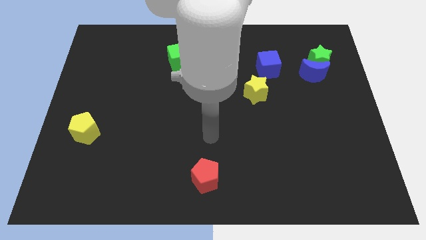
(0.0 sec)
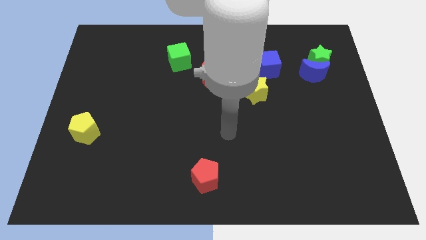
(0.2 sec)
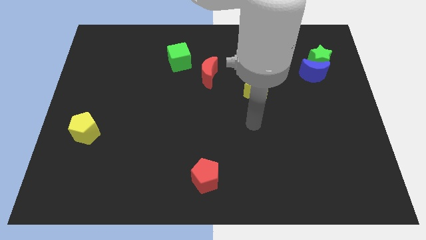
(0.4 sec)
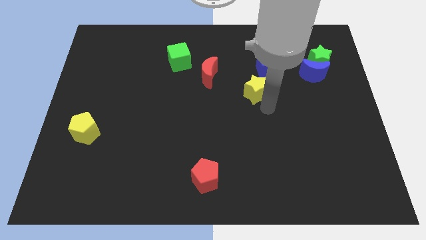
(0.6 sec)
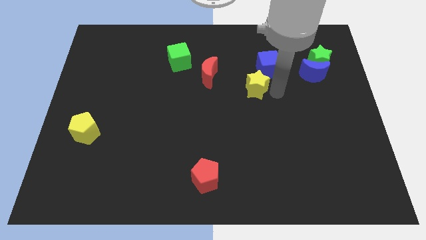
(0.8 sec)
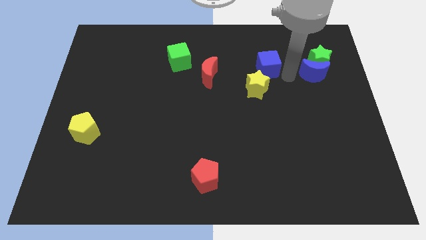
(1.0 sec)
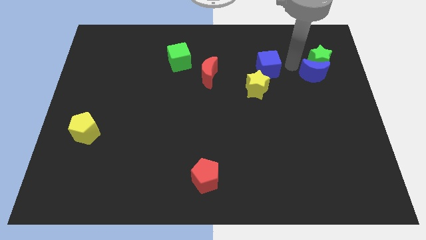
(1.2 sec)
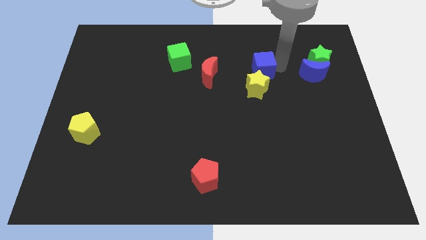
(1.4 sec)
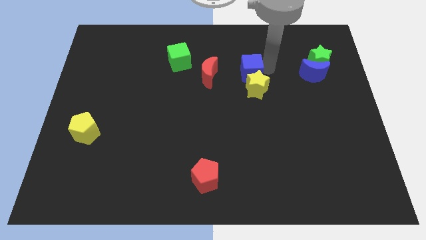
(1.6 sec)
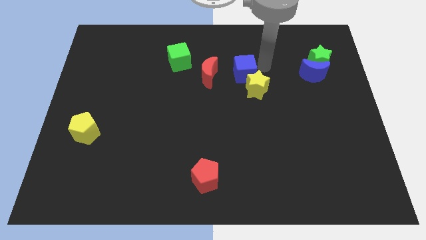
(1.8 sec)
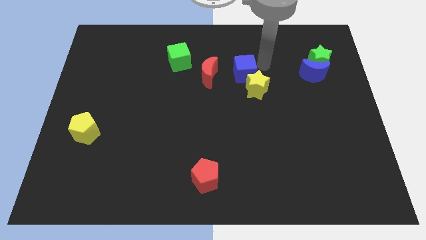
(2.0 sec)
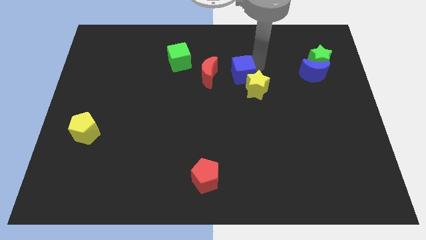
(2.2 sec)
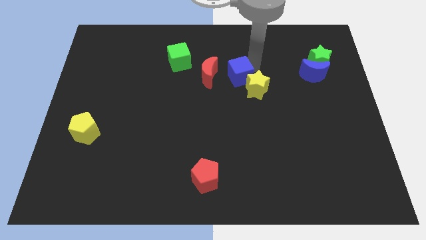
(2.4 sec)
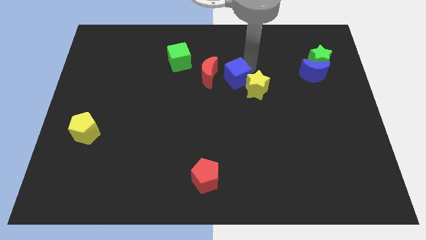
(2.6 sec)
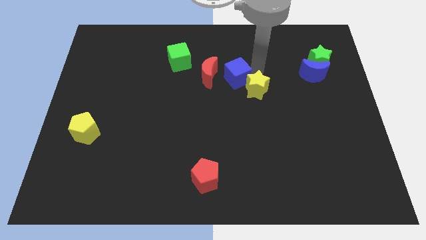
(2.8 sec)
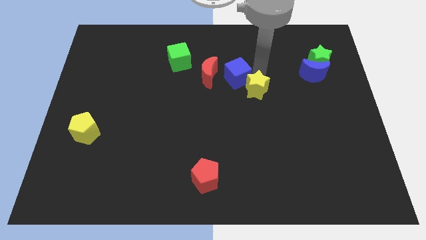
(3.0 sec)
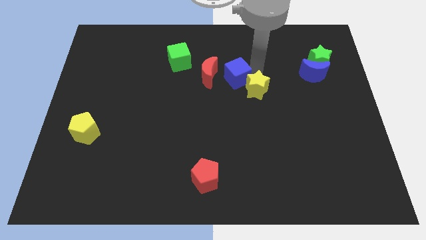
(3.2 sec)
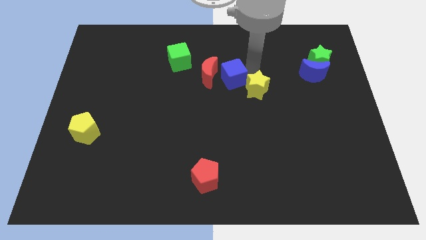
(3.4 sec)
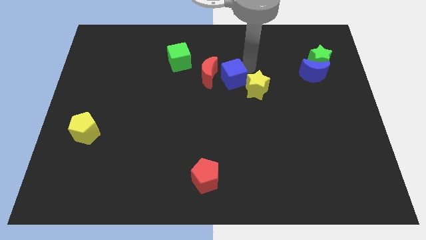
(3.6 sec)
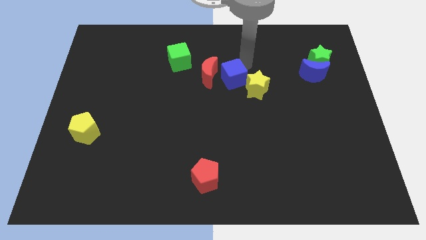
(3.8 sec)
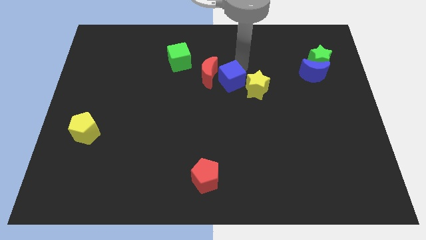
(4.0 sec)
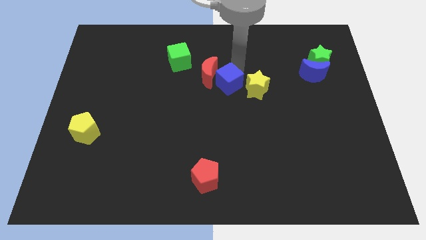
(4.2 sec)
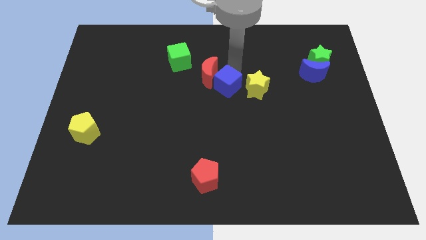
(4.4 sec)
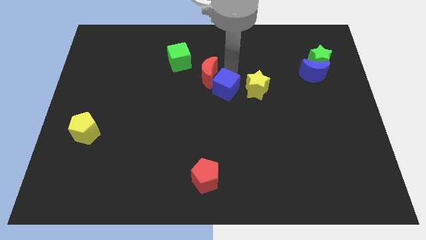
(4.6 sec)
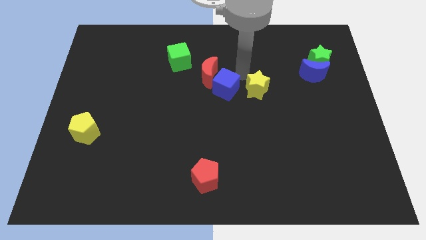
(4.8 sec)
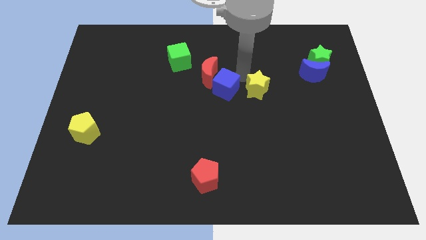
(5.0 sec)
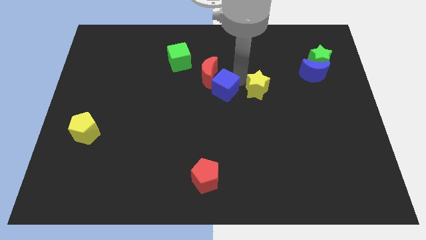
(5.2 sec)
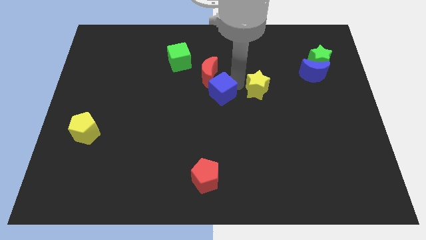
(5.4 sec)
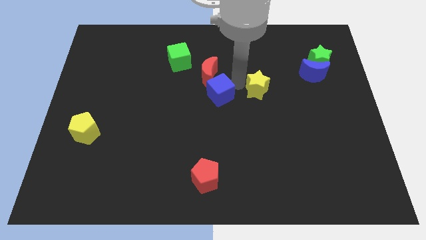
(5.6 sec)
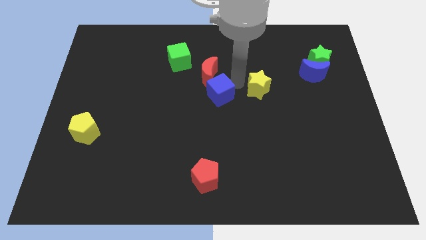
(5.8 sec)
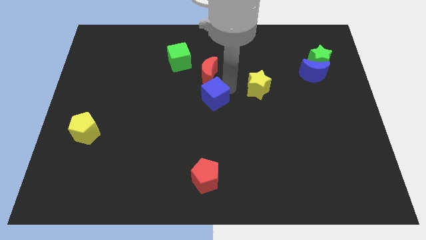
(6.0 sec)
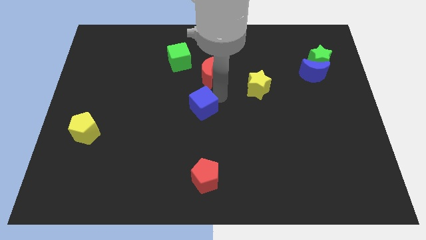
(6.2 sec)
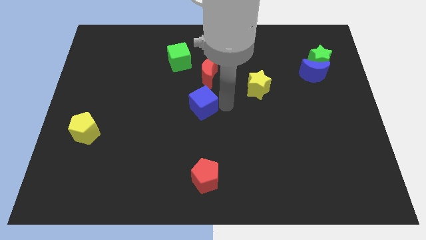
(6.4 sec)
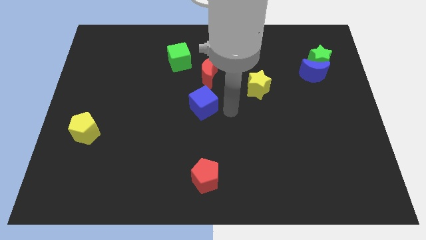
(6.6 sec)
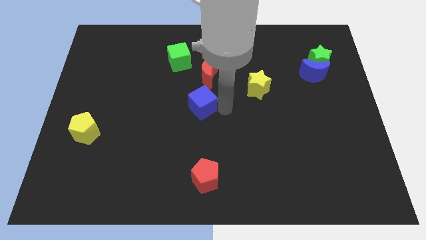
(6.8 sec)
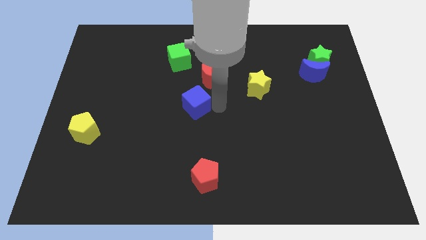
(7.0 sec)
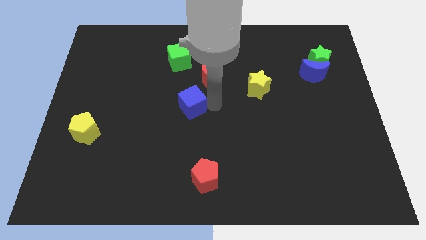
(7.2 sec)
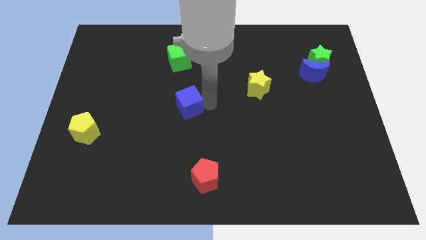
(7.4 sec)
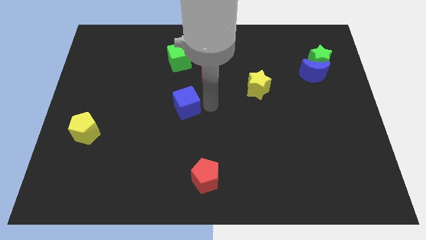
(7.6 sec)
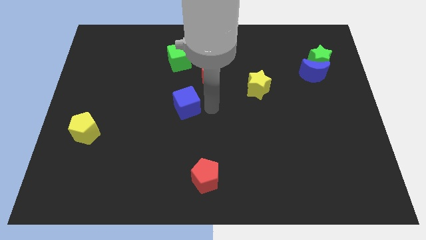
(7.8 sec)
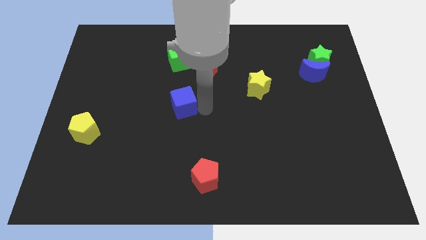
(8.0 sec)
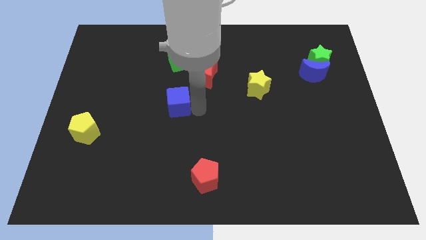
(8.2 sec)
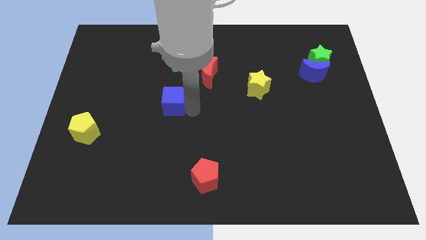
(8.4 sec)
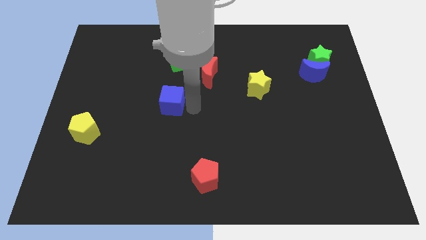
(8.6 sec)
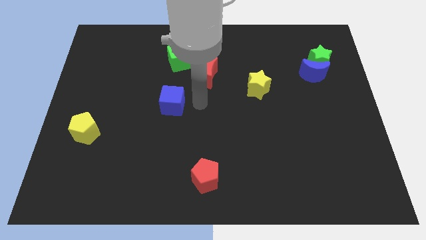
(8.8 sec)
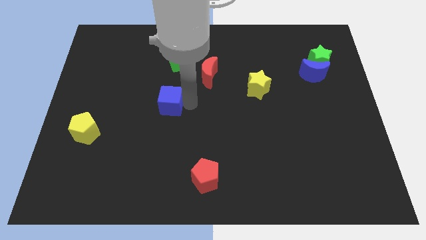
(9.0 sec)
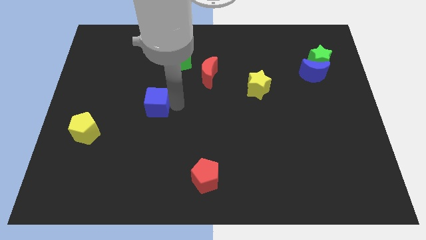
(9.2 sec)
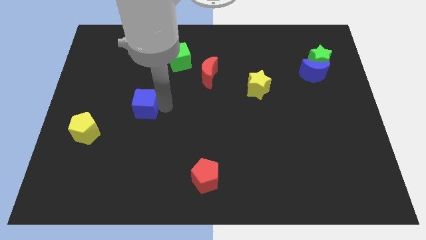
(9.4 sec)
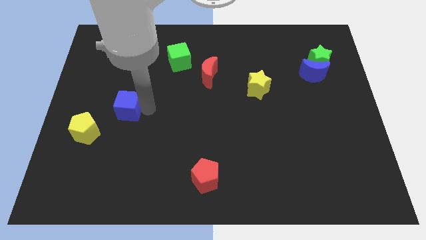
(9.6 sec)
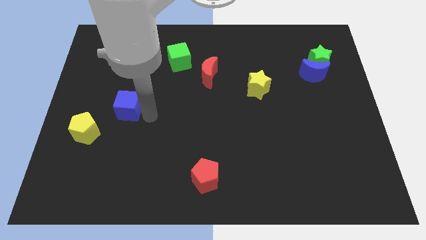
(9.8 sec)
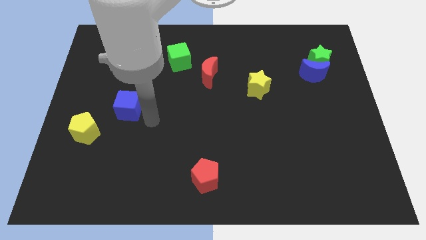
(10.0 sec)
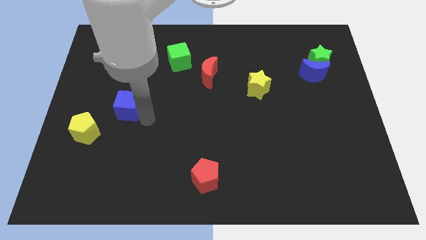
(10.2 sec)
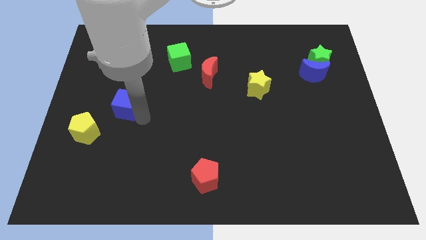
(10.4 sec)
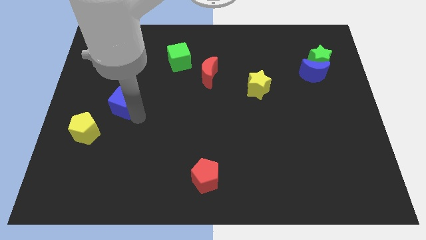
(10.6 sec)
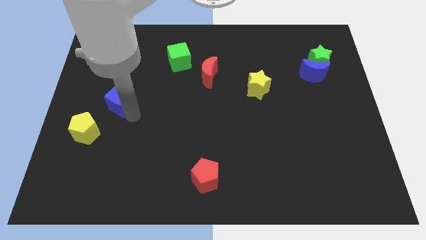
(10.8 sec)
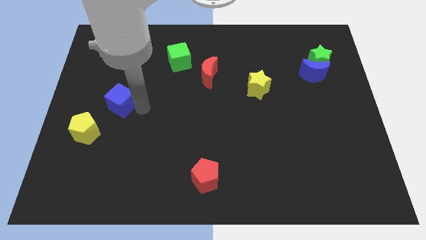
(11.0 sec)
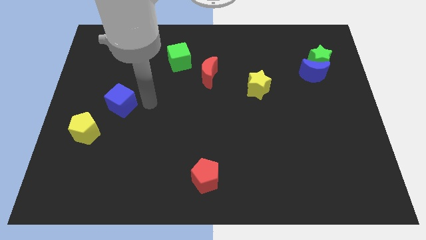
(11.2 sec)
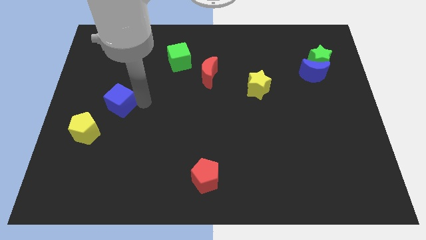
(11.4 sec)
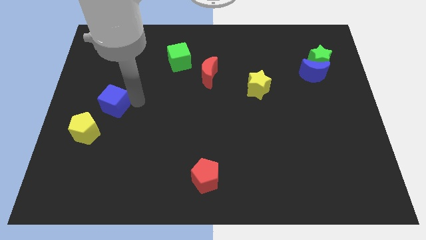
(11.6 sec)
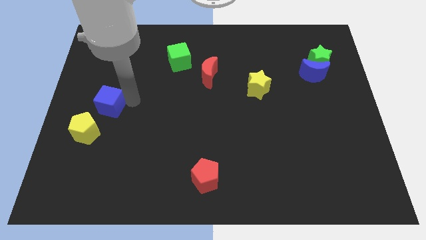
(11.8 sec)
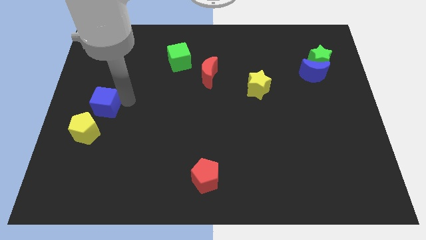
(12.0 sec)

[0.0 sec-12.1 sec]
move the blue cube to the left side of the board

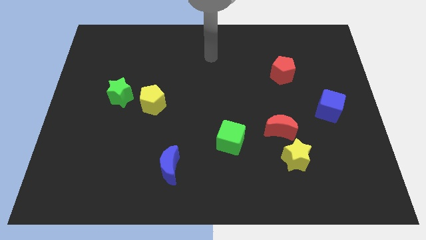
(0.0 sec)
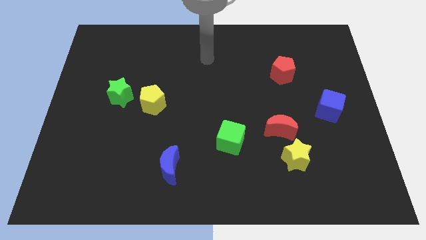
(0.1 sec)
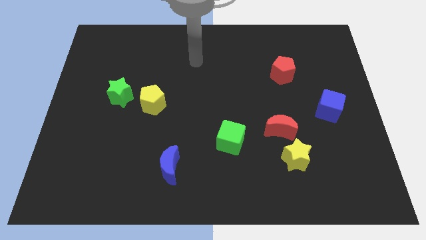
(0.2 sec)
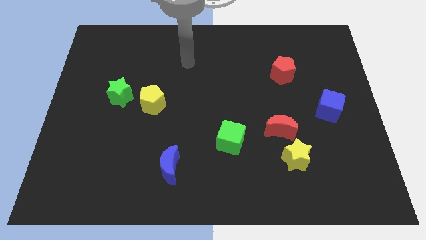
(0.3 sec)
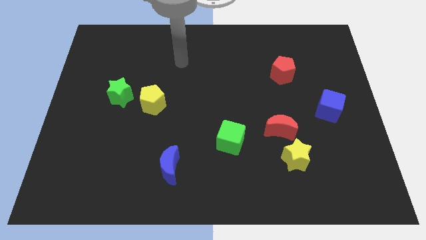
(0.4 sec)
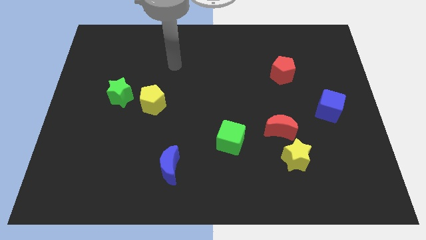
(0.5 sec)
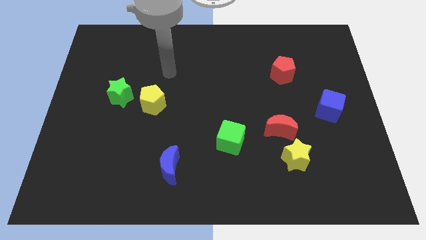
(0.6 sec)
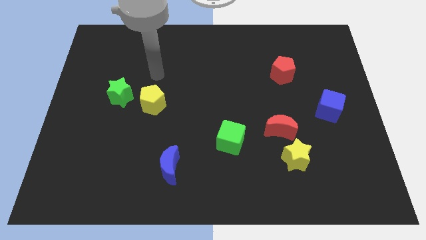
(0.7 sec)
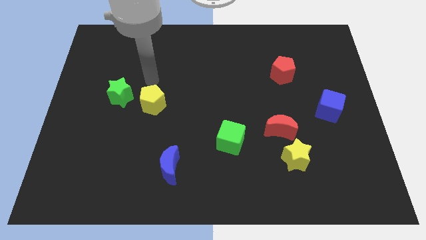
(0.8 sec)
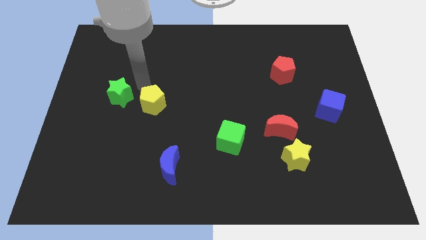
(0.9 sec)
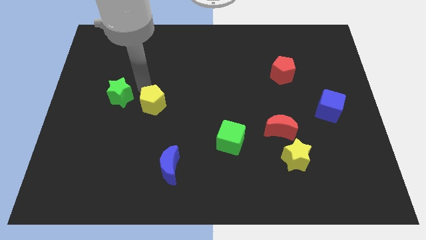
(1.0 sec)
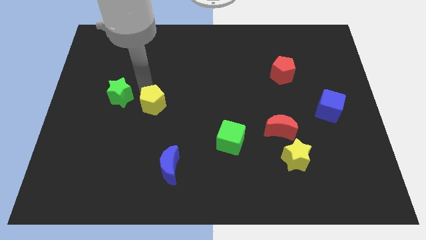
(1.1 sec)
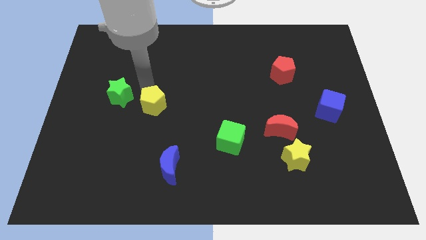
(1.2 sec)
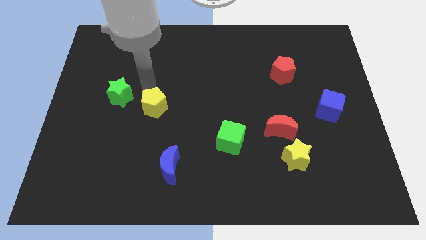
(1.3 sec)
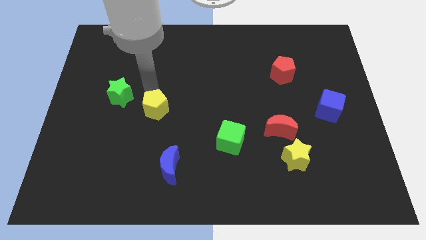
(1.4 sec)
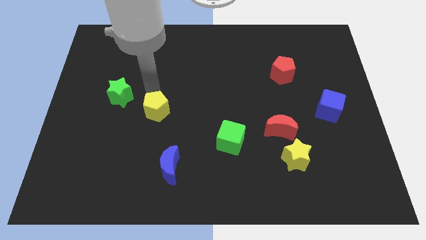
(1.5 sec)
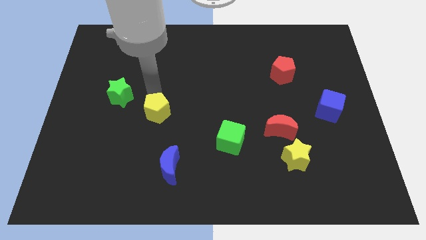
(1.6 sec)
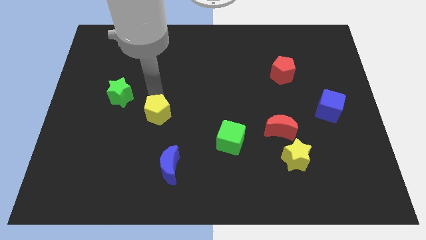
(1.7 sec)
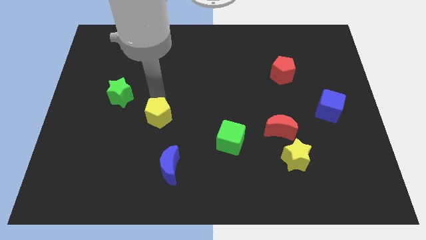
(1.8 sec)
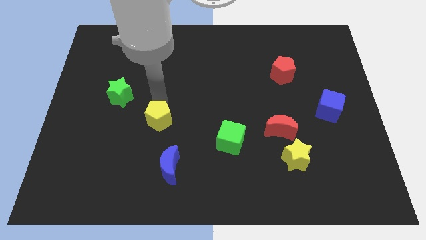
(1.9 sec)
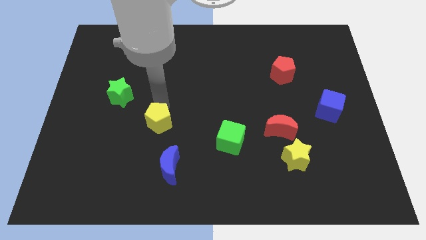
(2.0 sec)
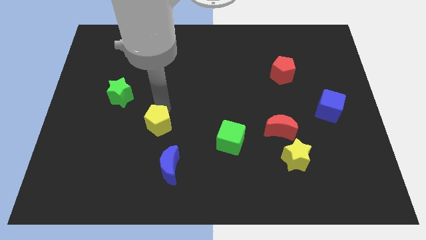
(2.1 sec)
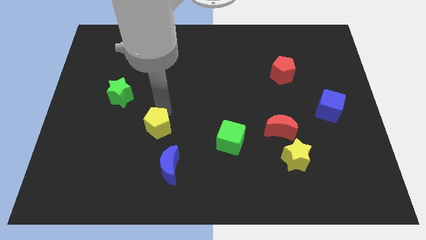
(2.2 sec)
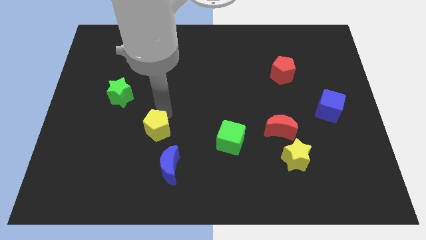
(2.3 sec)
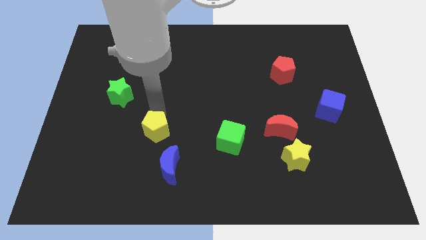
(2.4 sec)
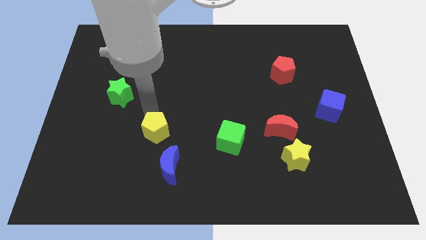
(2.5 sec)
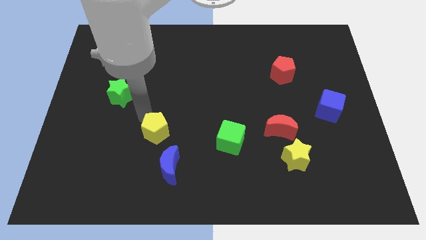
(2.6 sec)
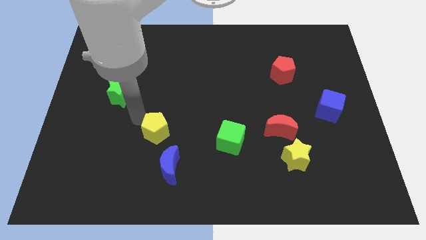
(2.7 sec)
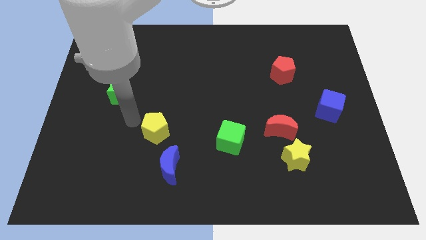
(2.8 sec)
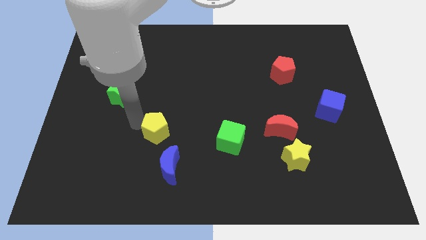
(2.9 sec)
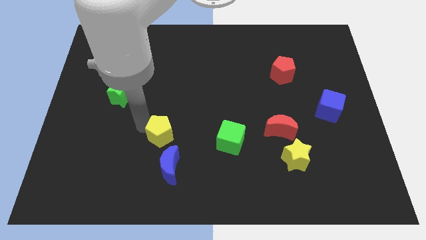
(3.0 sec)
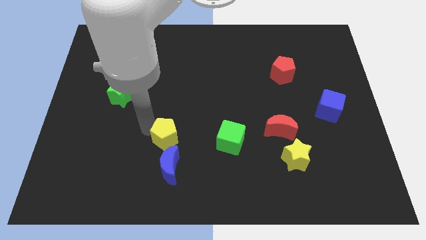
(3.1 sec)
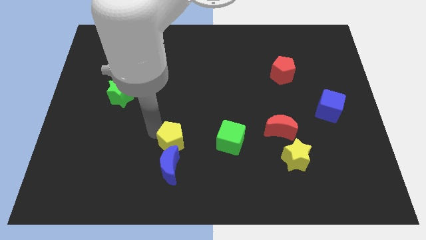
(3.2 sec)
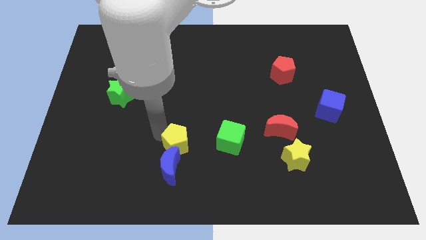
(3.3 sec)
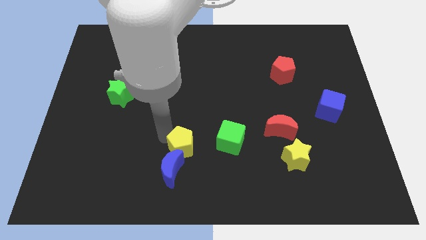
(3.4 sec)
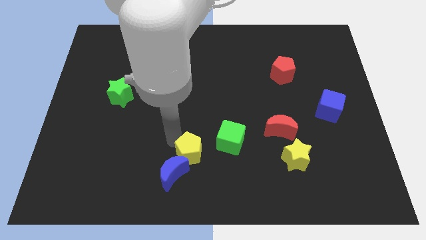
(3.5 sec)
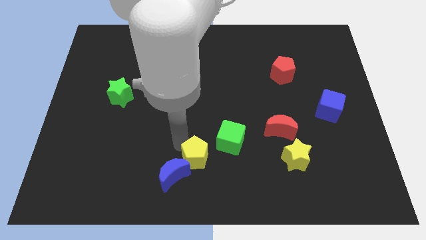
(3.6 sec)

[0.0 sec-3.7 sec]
move the yellow pentagon to the bottom
